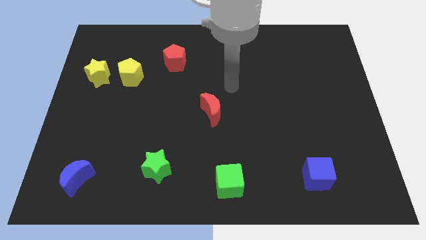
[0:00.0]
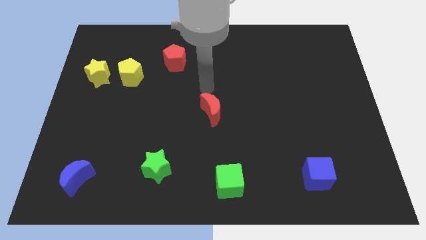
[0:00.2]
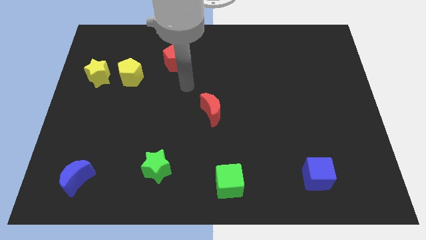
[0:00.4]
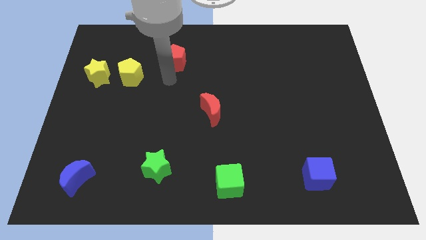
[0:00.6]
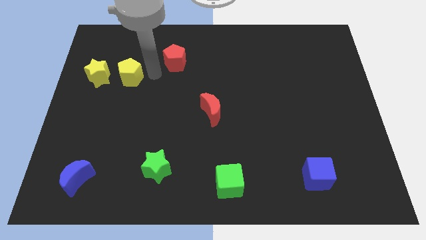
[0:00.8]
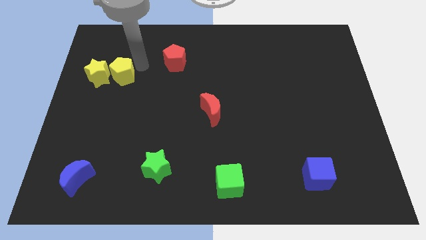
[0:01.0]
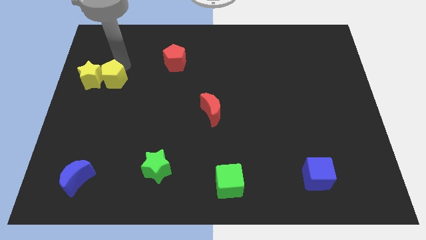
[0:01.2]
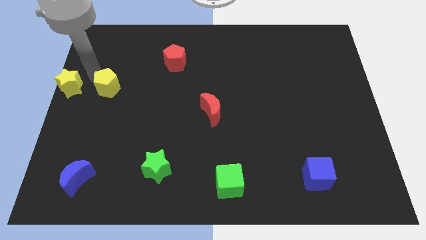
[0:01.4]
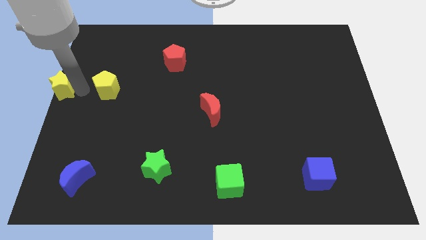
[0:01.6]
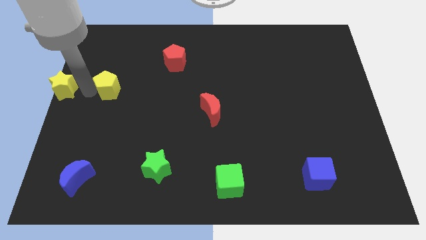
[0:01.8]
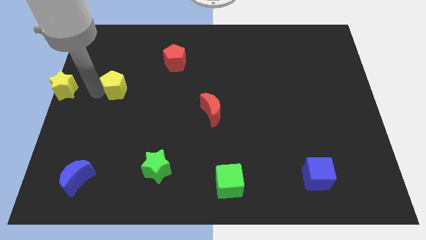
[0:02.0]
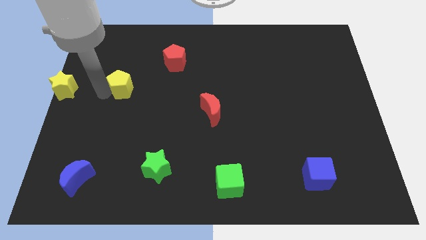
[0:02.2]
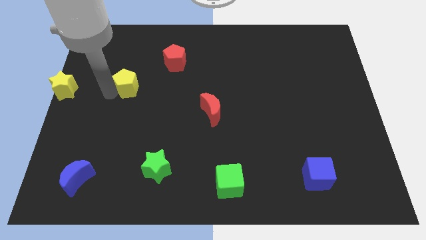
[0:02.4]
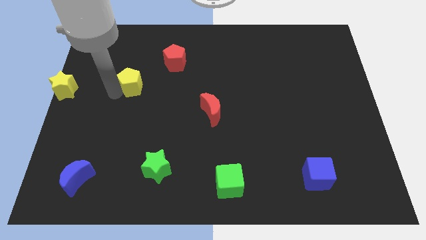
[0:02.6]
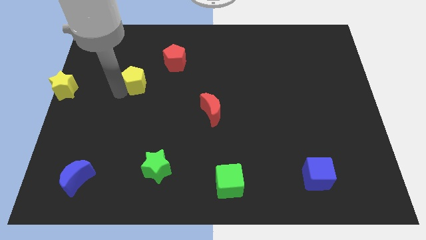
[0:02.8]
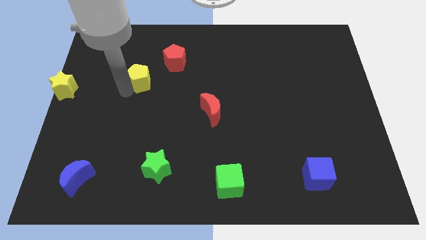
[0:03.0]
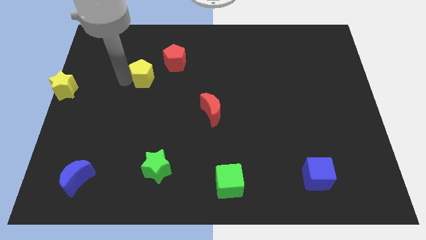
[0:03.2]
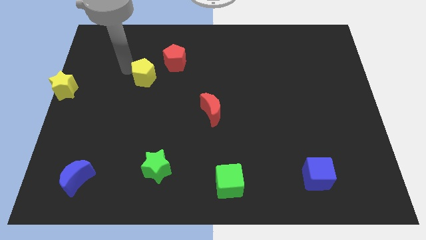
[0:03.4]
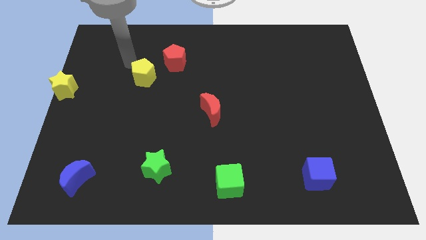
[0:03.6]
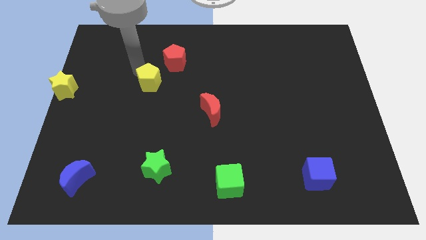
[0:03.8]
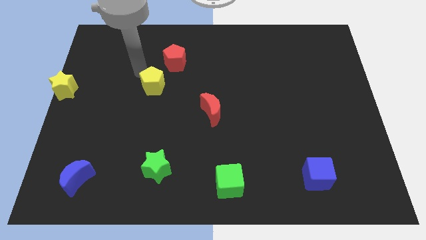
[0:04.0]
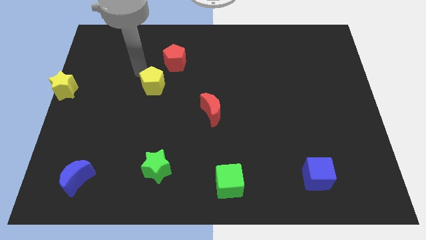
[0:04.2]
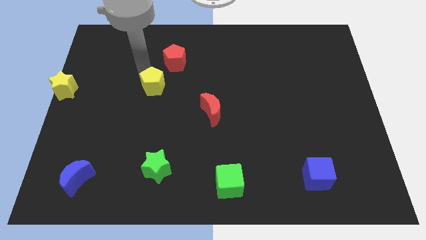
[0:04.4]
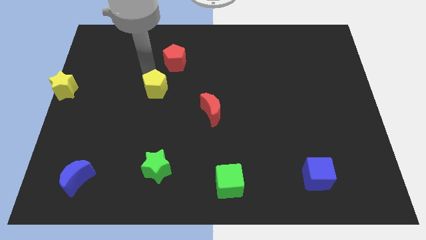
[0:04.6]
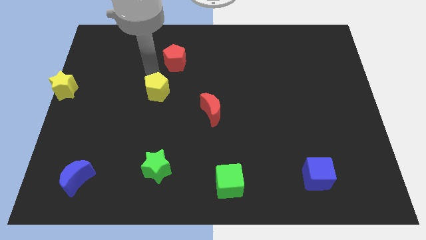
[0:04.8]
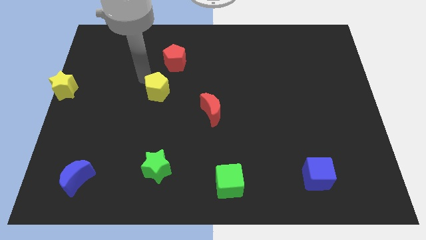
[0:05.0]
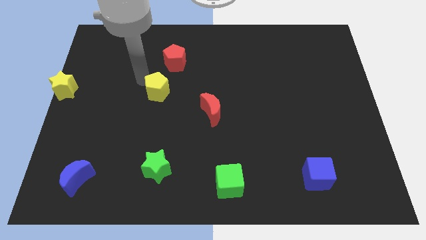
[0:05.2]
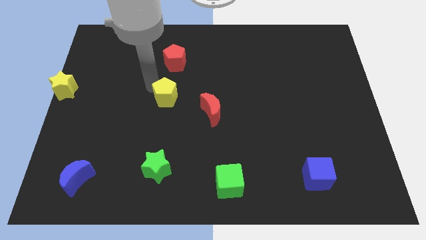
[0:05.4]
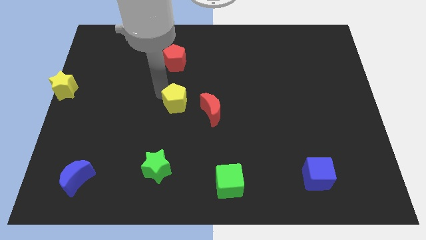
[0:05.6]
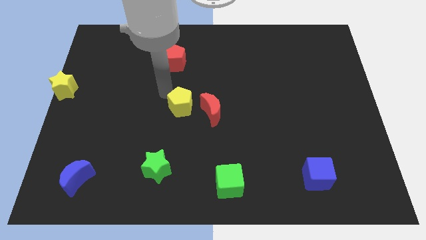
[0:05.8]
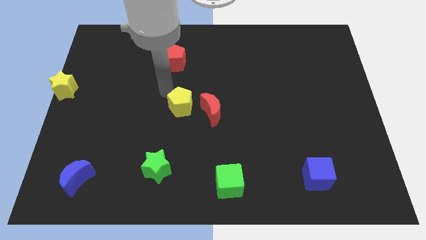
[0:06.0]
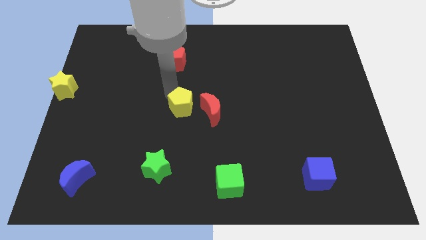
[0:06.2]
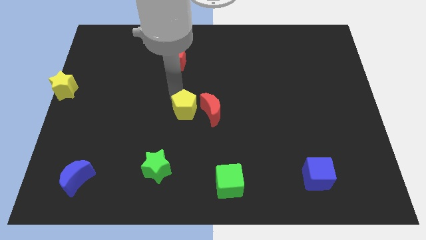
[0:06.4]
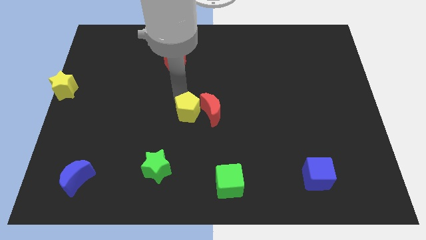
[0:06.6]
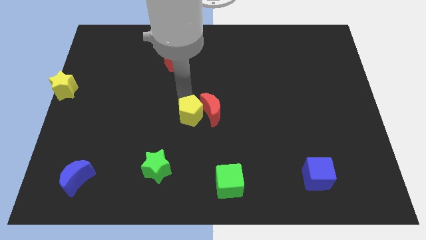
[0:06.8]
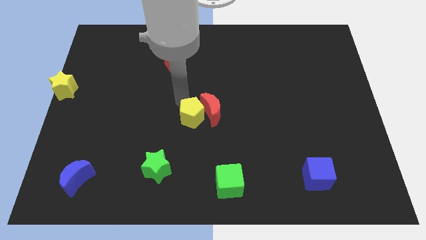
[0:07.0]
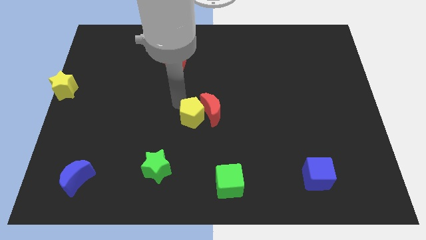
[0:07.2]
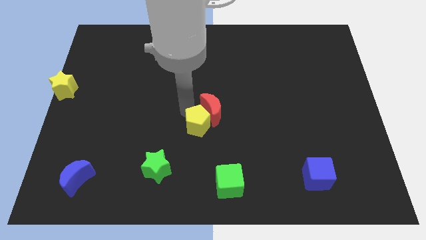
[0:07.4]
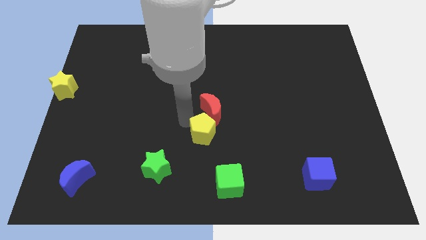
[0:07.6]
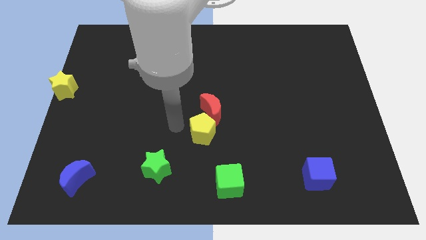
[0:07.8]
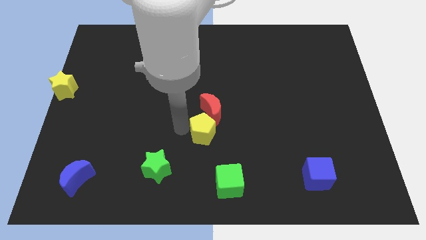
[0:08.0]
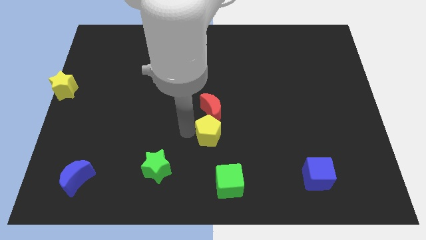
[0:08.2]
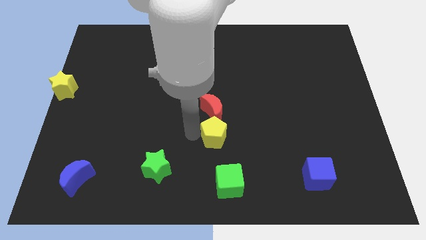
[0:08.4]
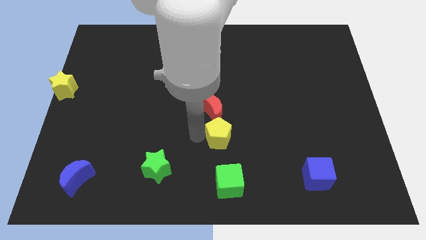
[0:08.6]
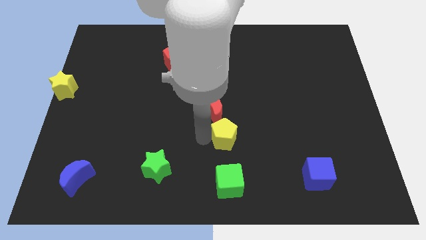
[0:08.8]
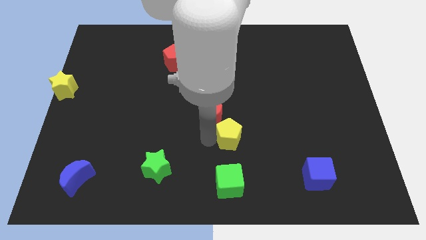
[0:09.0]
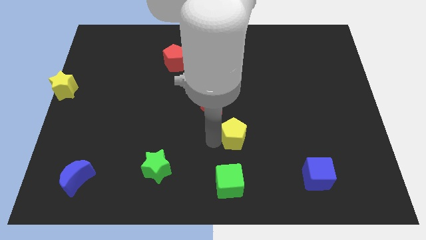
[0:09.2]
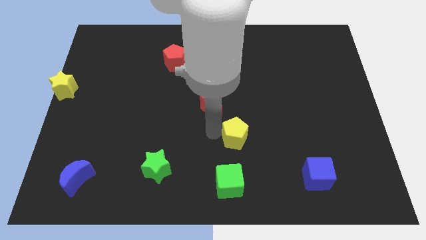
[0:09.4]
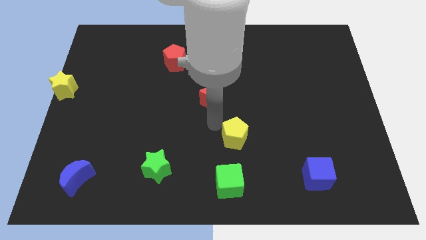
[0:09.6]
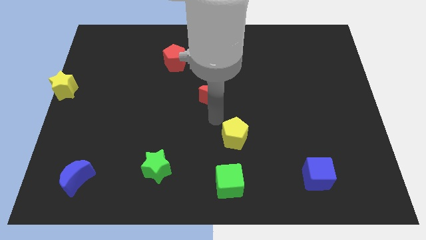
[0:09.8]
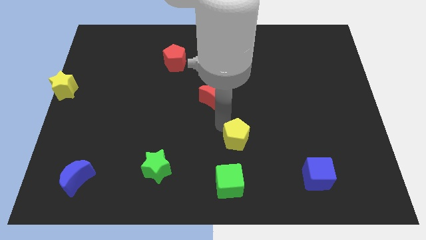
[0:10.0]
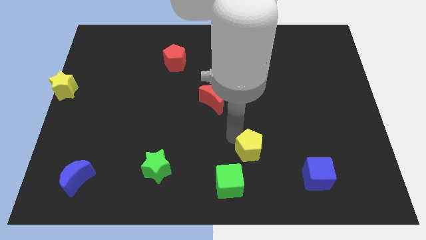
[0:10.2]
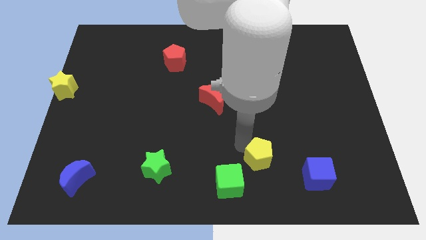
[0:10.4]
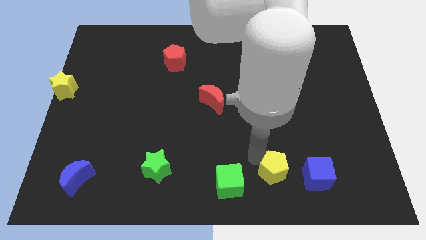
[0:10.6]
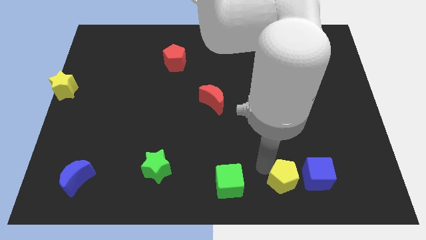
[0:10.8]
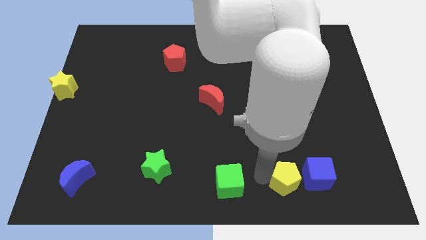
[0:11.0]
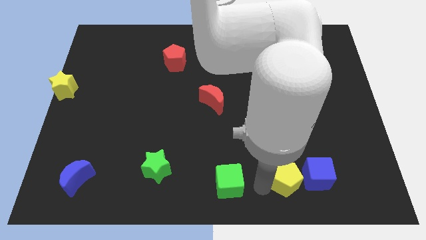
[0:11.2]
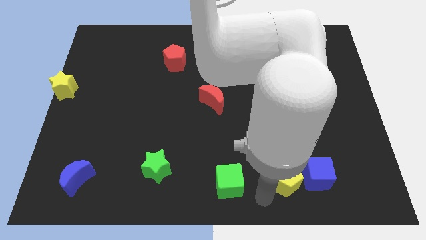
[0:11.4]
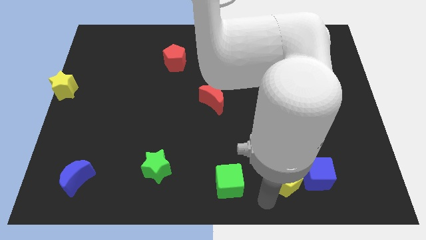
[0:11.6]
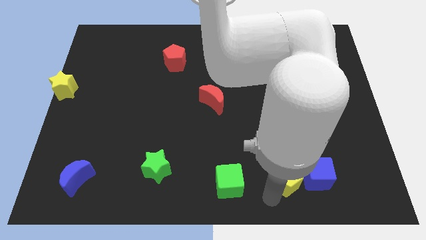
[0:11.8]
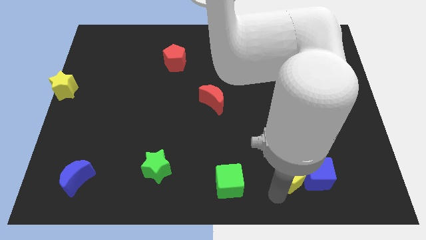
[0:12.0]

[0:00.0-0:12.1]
put the yellow pentagon next to the blue cube

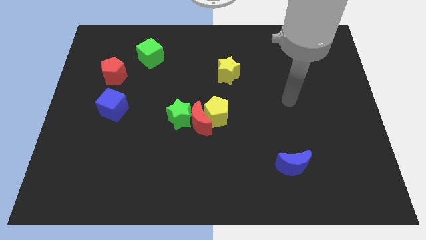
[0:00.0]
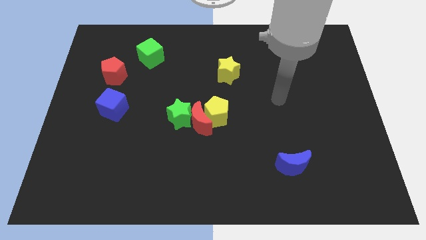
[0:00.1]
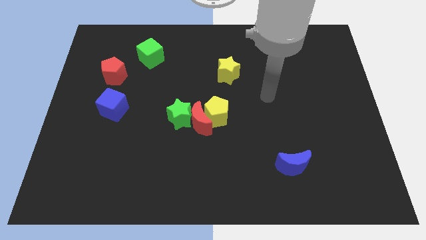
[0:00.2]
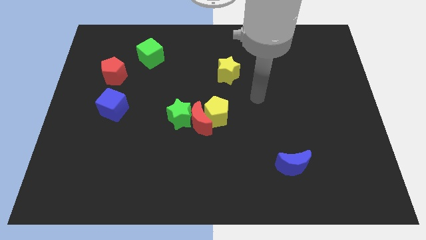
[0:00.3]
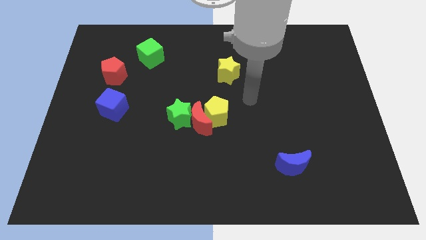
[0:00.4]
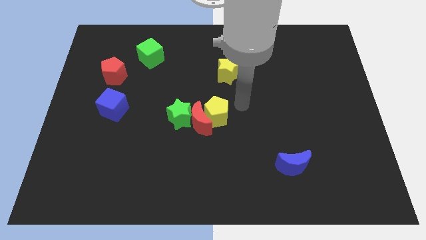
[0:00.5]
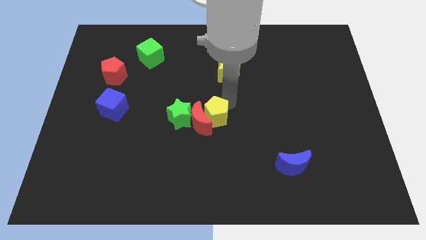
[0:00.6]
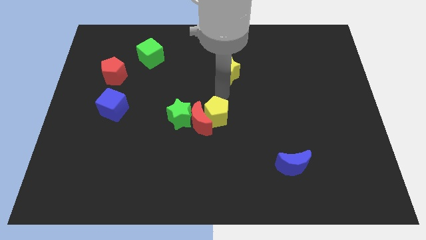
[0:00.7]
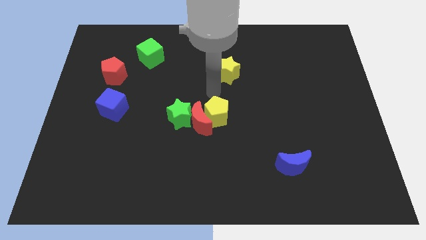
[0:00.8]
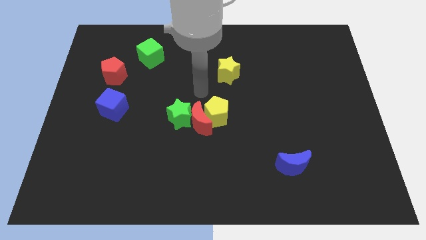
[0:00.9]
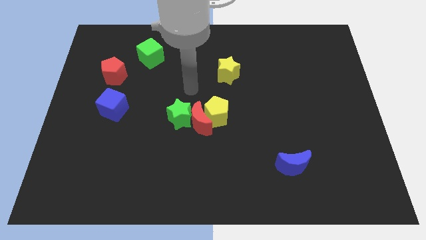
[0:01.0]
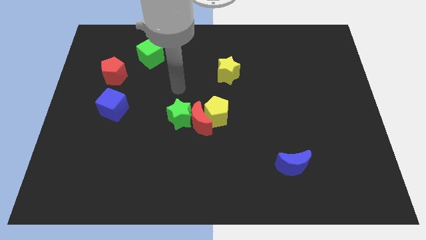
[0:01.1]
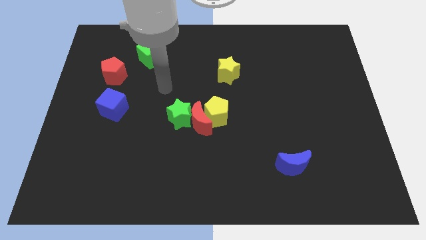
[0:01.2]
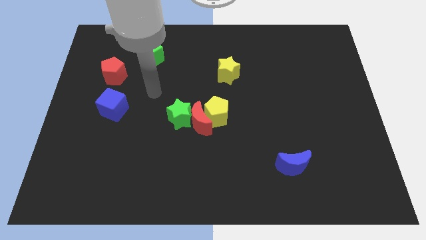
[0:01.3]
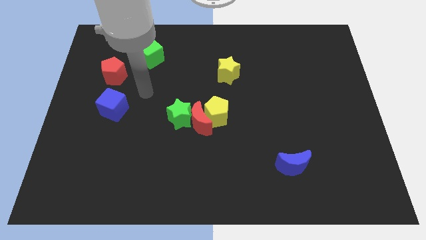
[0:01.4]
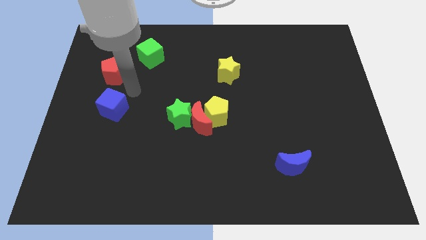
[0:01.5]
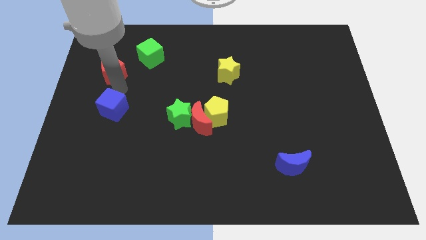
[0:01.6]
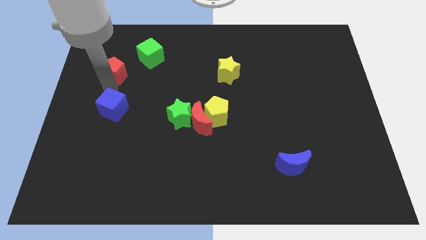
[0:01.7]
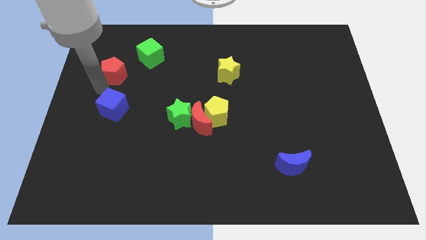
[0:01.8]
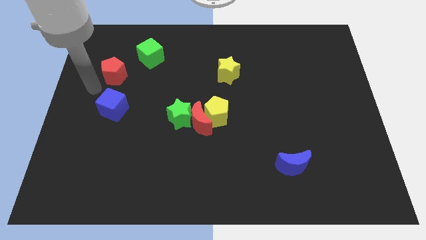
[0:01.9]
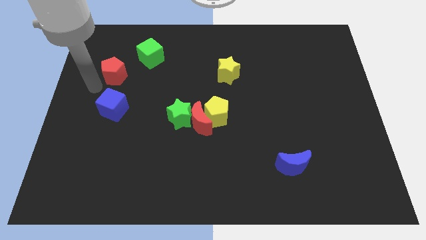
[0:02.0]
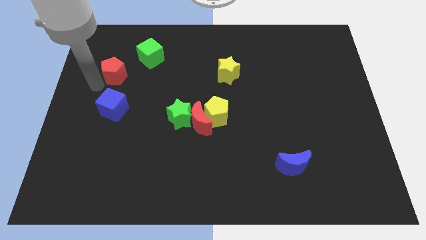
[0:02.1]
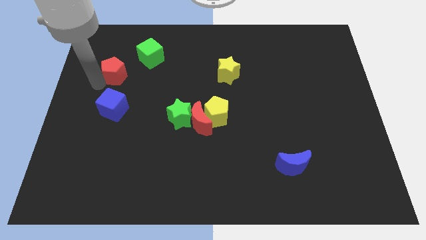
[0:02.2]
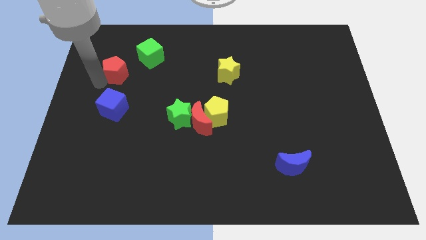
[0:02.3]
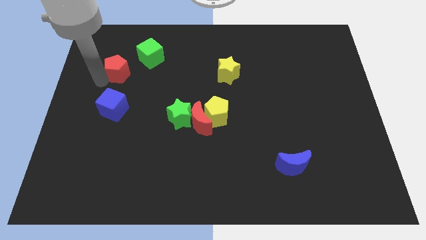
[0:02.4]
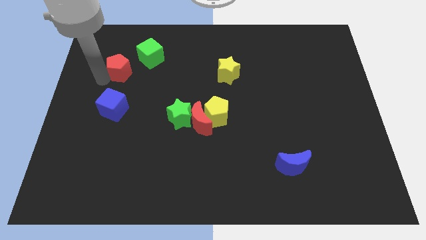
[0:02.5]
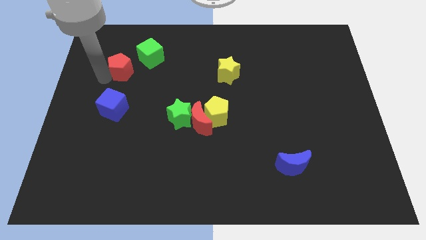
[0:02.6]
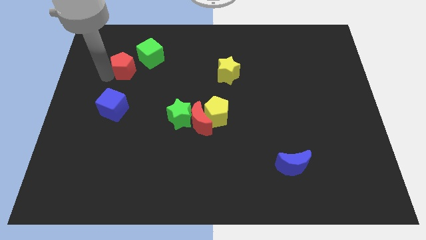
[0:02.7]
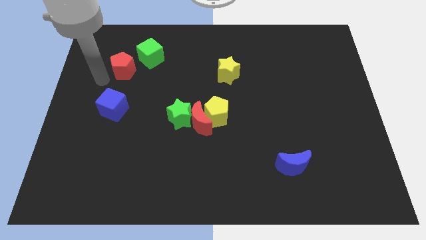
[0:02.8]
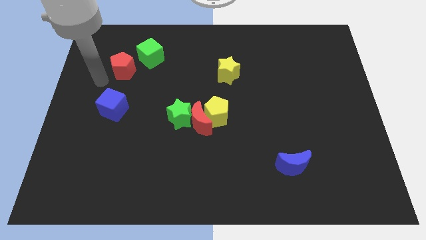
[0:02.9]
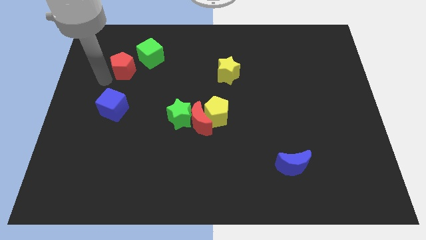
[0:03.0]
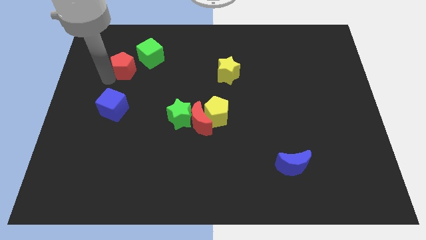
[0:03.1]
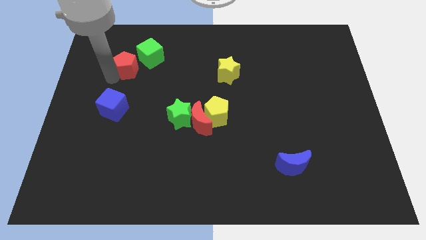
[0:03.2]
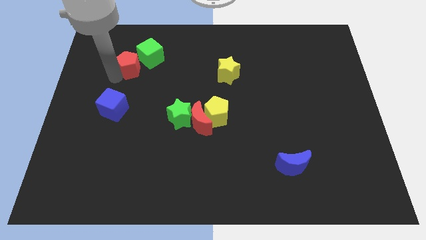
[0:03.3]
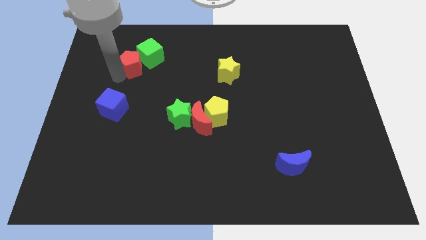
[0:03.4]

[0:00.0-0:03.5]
put the red pentagon next to the green cube
